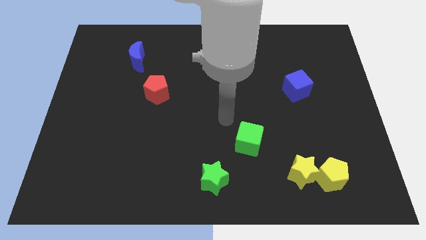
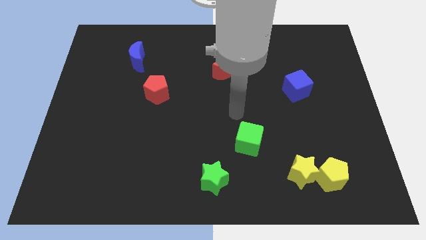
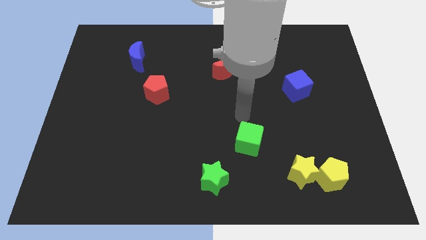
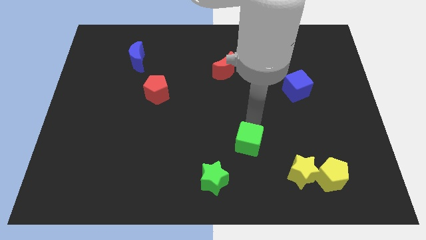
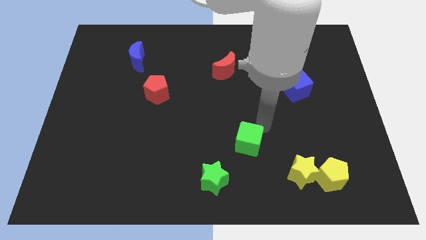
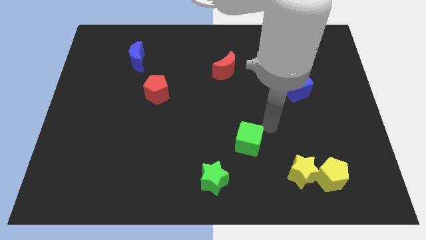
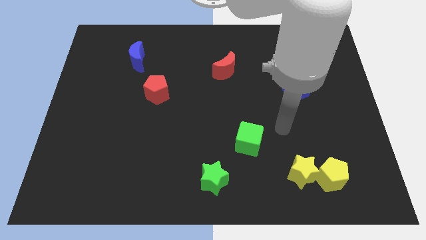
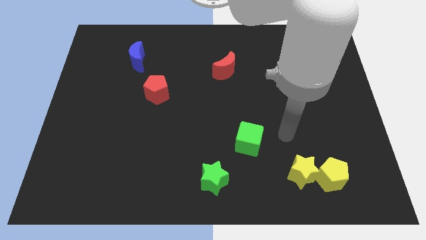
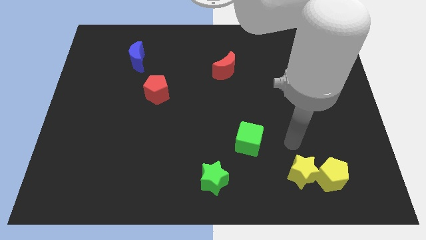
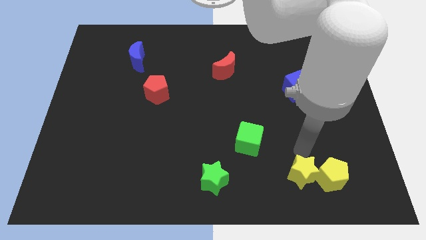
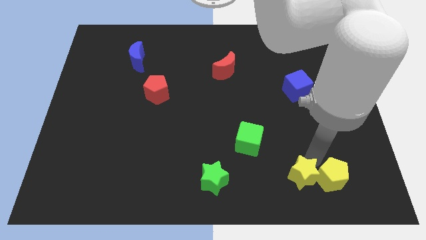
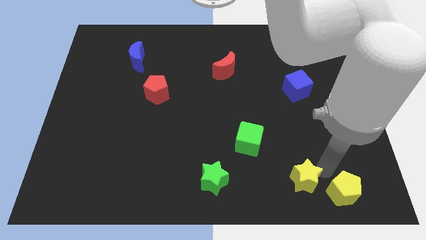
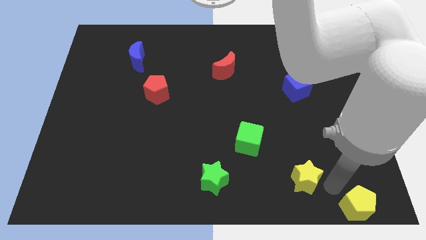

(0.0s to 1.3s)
pull the yellow star apart from the yellow pentagon

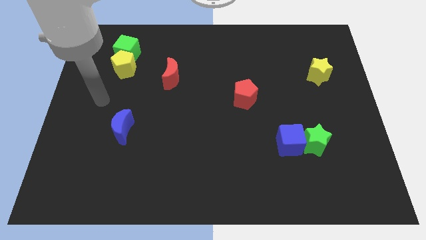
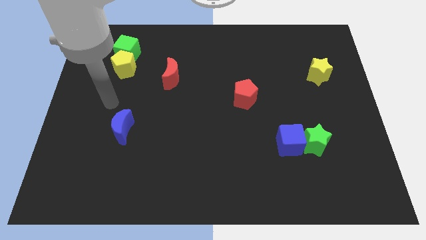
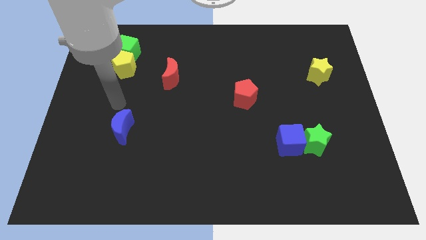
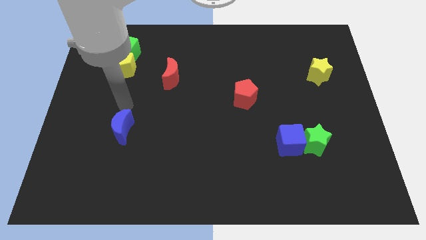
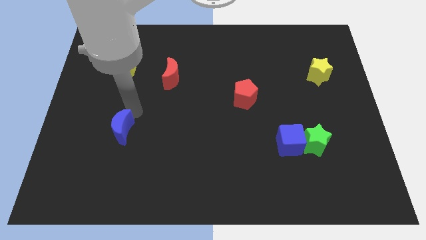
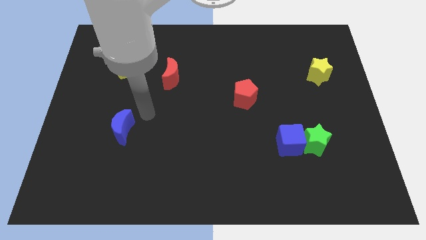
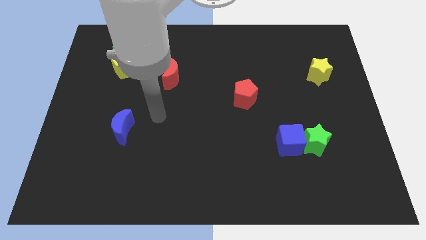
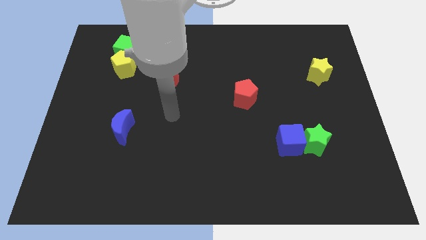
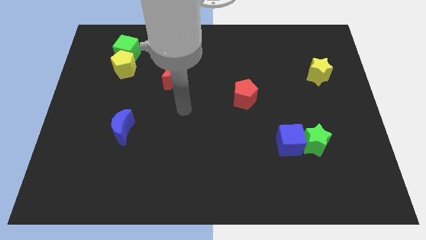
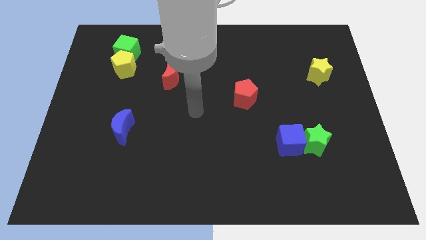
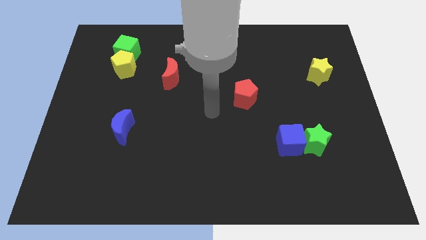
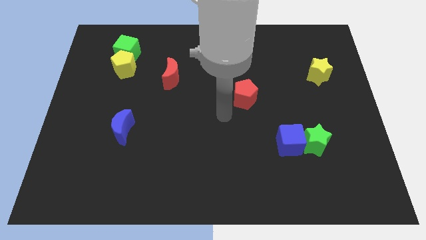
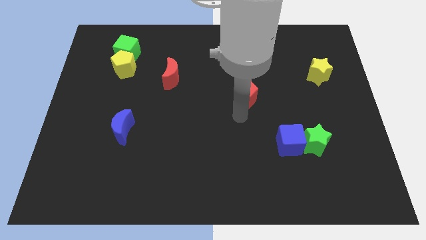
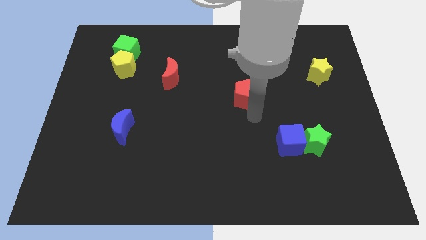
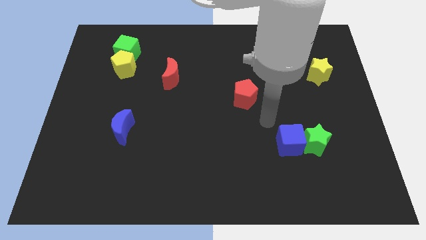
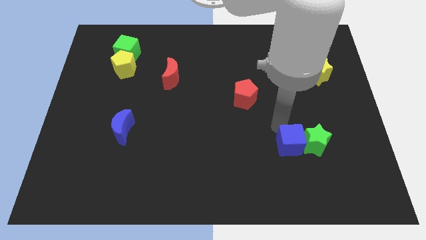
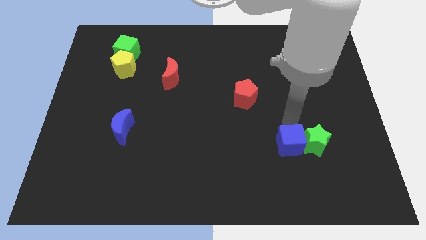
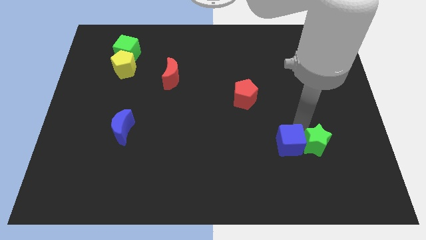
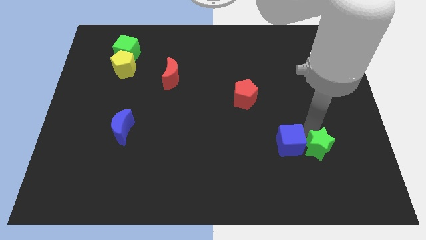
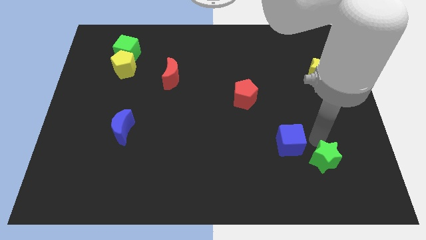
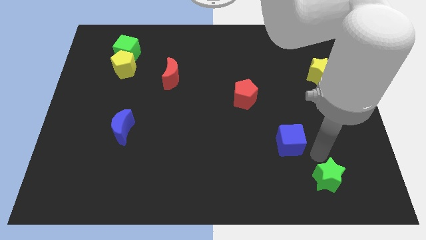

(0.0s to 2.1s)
separate the blue cube from the green star

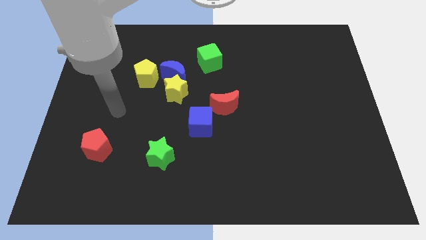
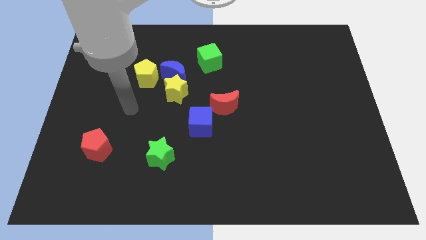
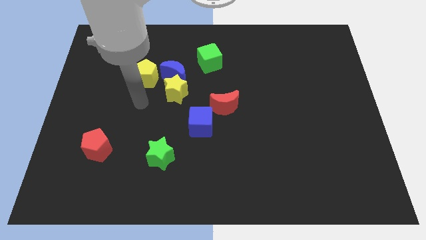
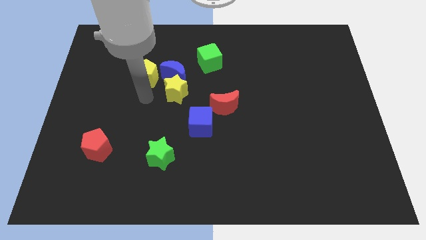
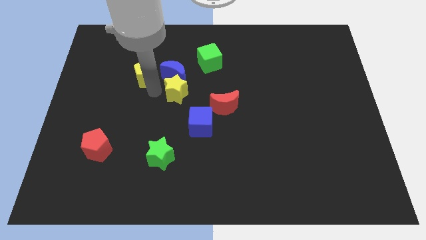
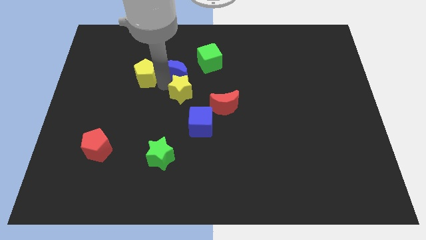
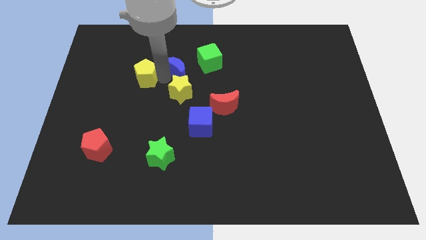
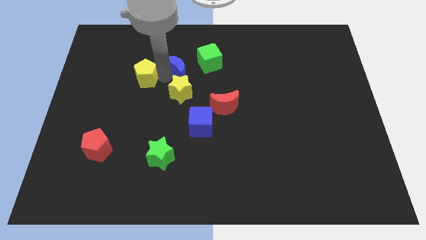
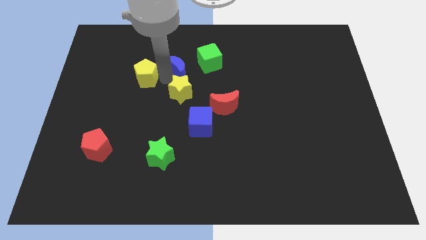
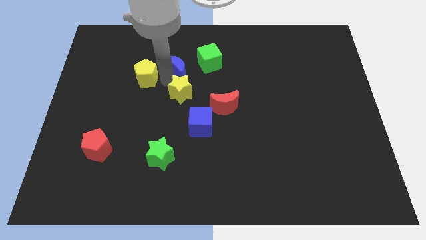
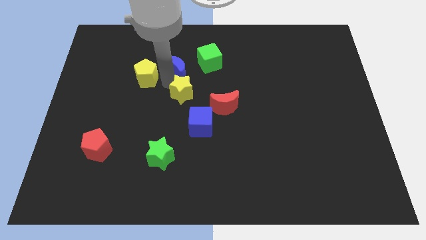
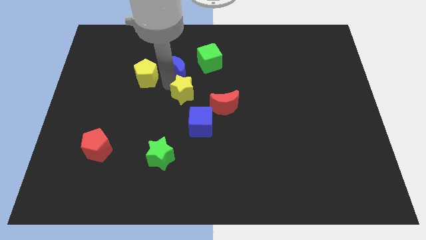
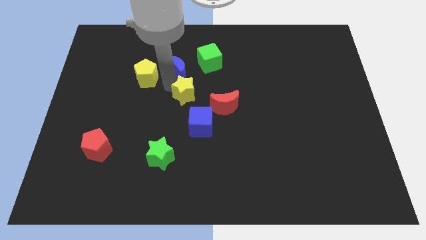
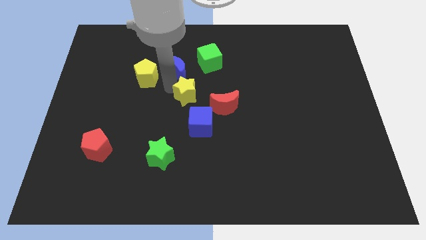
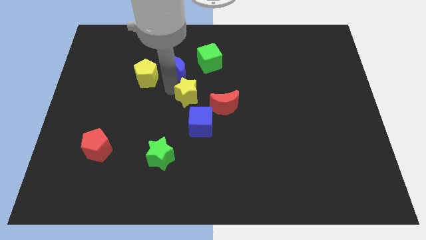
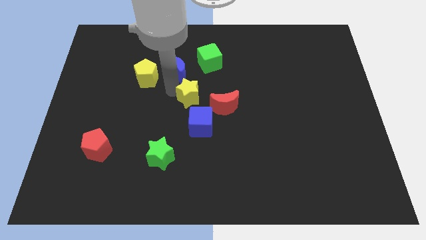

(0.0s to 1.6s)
separate the yellow star from the blue moon and yellow pentagon

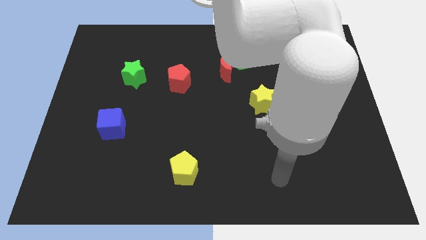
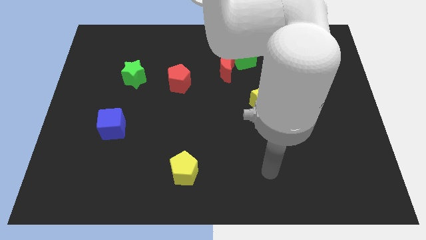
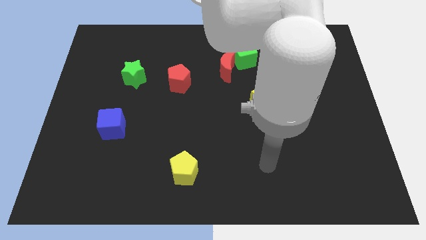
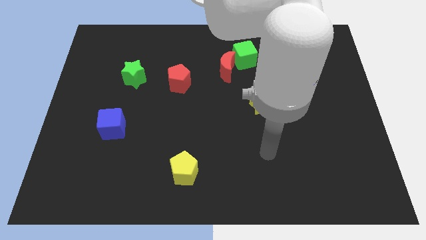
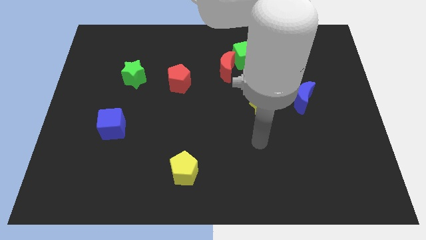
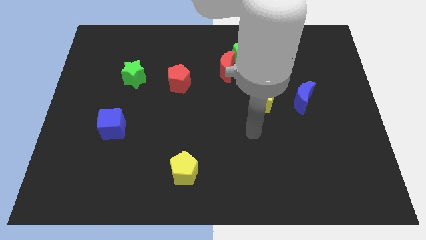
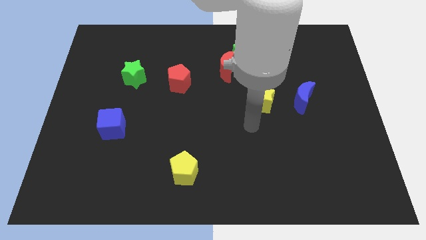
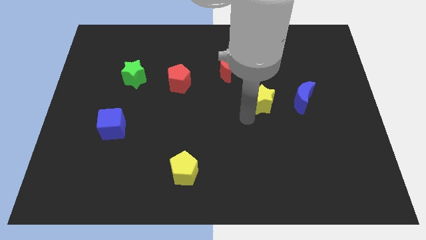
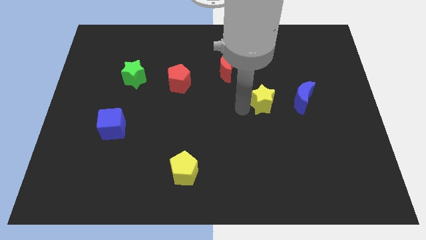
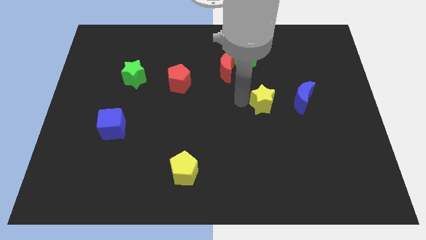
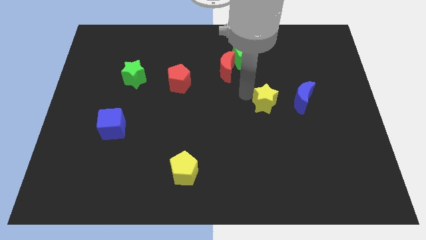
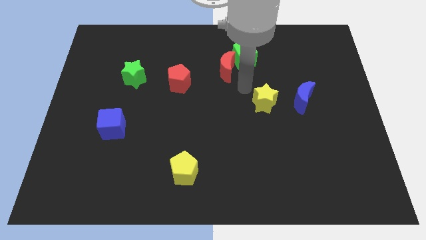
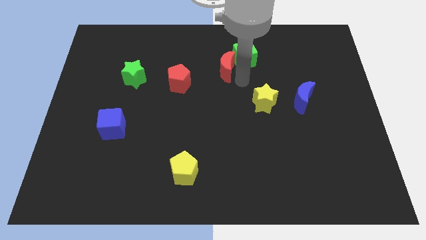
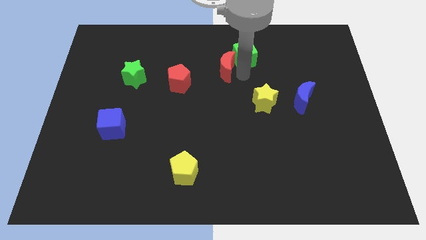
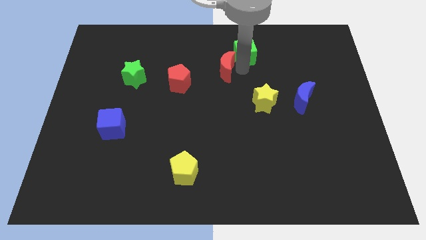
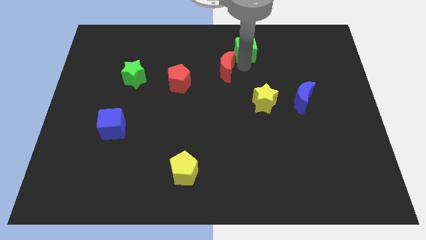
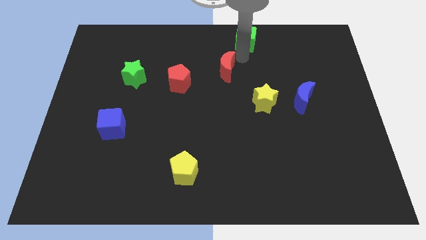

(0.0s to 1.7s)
separate the red moon from the green cube

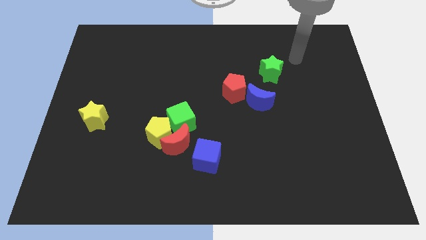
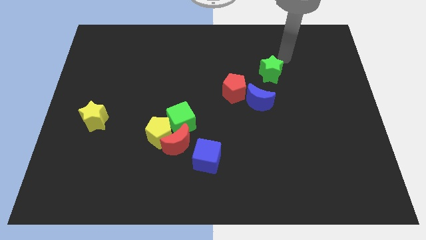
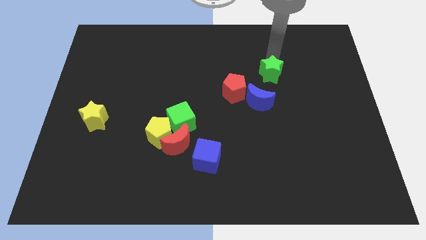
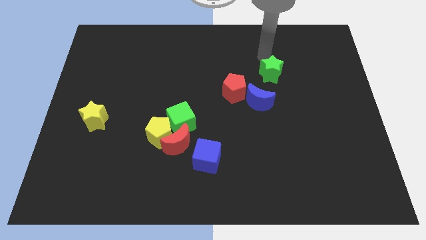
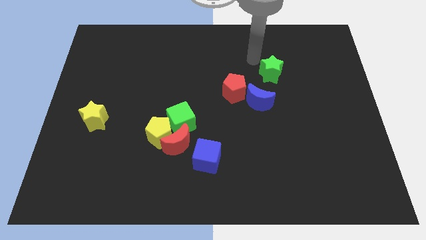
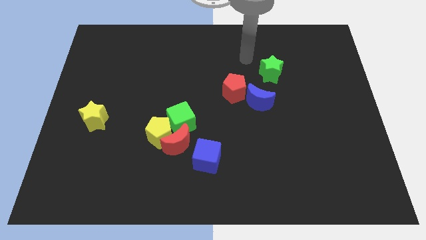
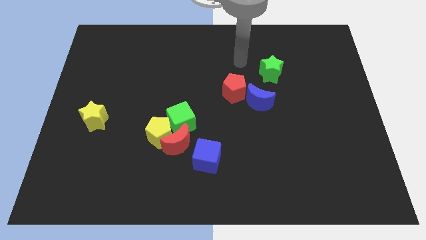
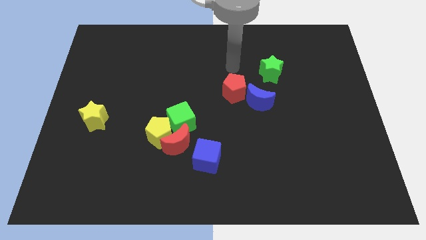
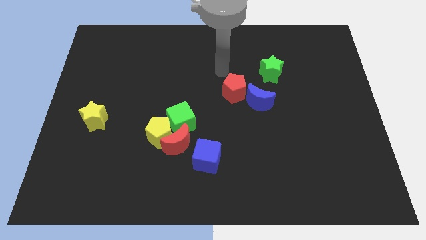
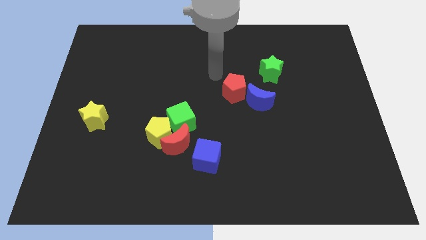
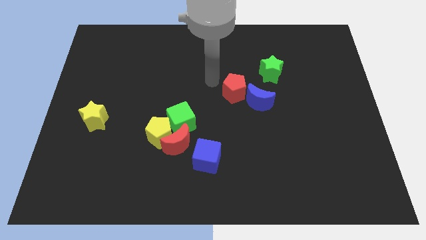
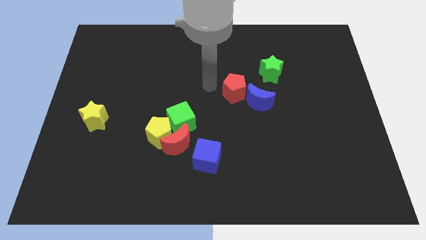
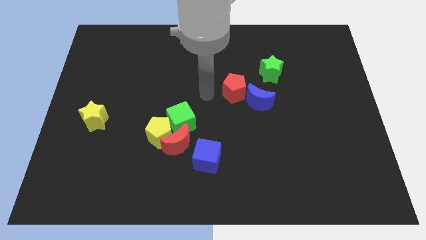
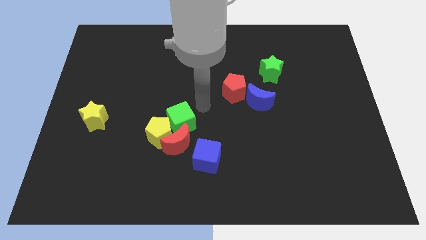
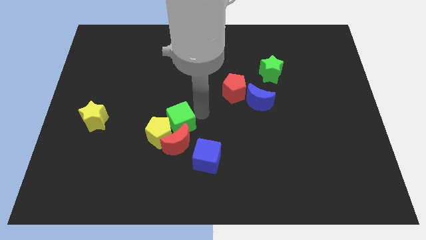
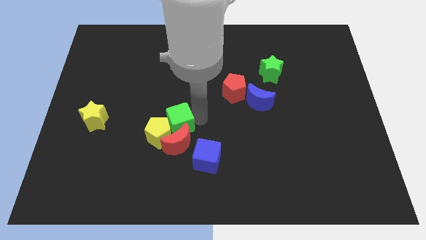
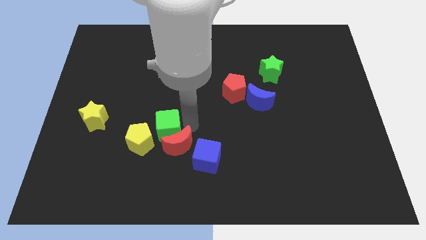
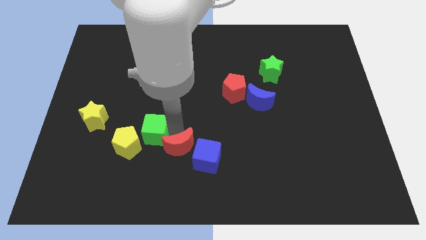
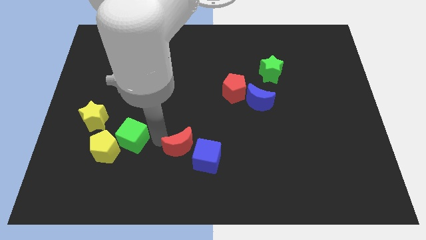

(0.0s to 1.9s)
move the yellow pentagon away from the red moon and green cube

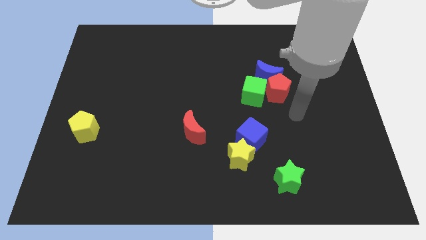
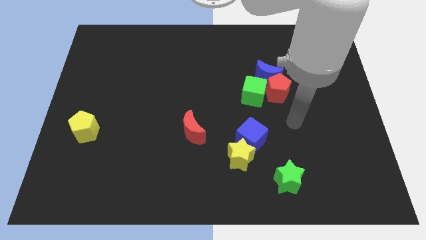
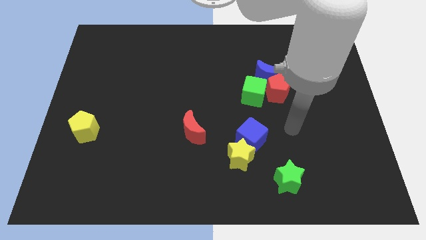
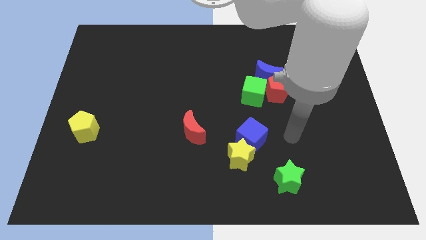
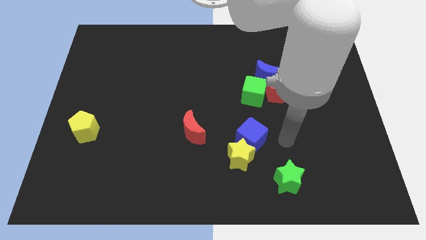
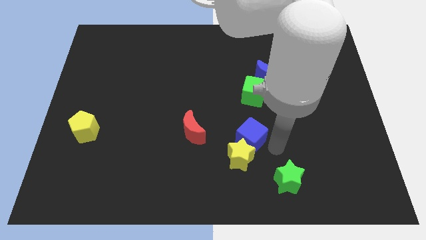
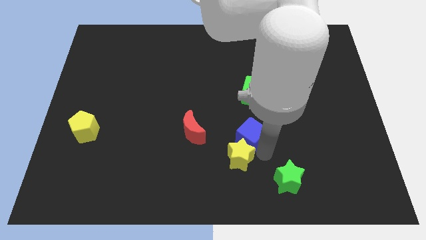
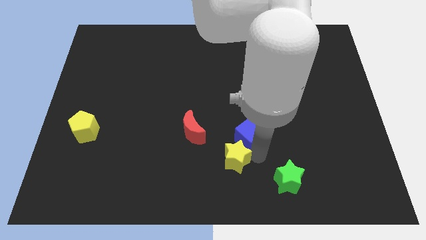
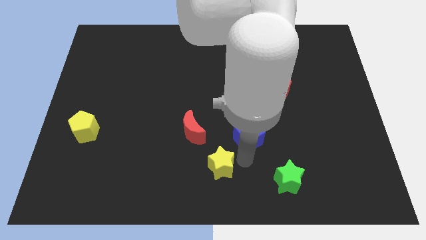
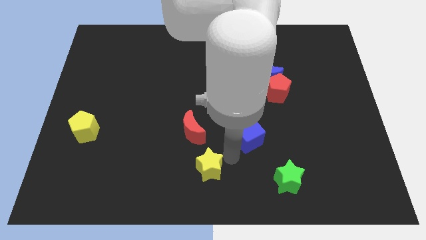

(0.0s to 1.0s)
move the blue cube away from the yellow star
